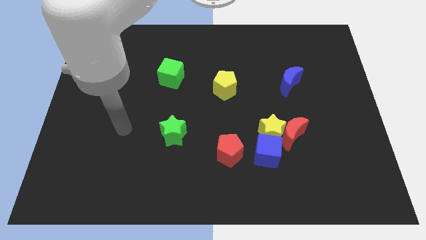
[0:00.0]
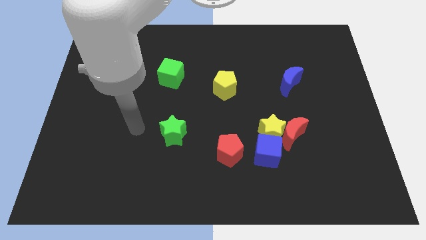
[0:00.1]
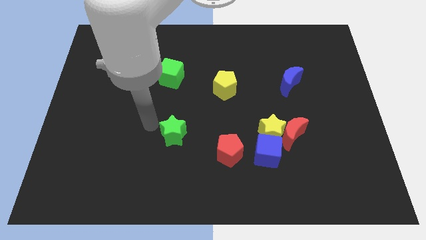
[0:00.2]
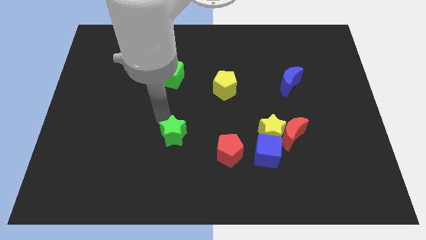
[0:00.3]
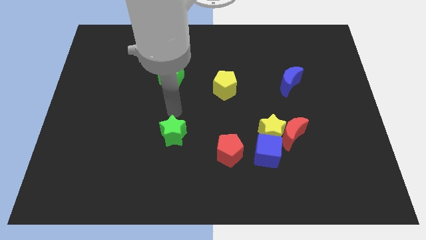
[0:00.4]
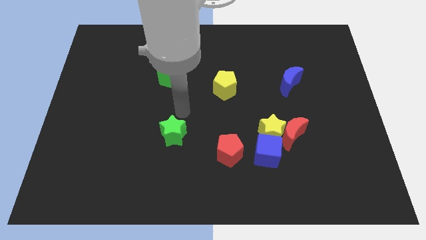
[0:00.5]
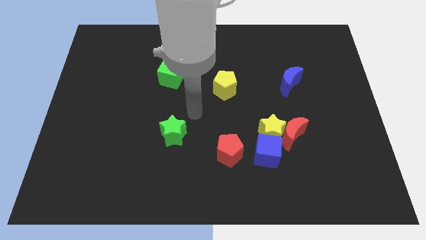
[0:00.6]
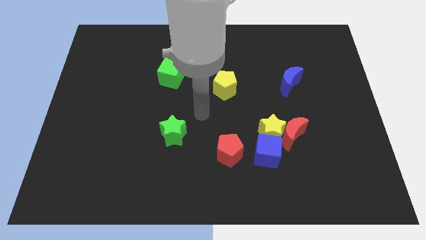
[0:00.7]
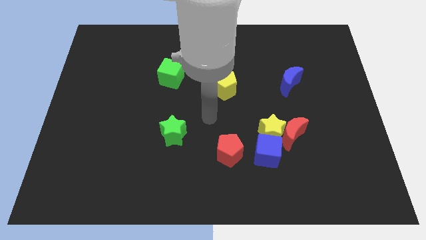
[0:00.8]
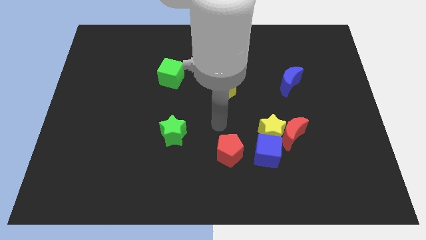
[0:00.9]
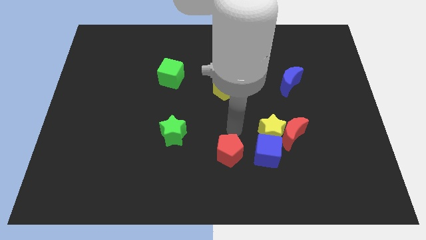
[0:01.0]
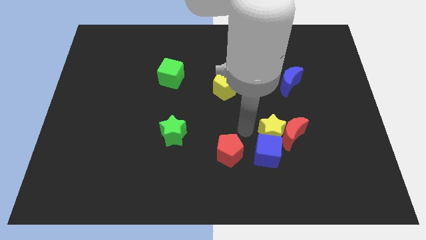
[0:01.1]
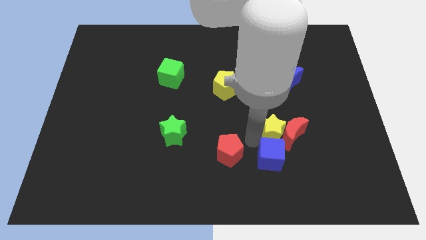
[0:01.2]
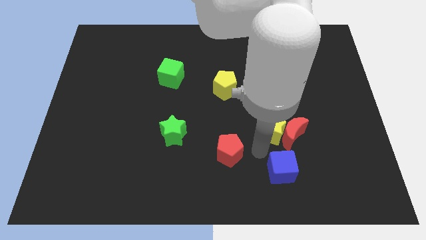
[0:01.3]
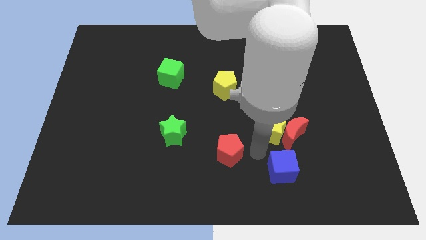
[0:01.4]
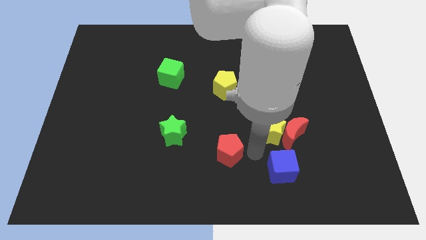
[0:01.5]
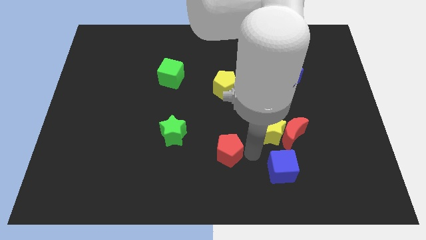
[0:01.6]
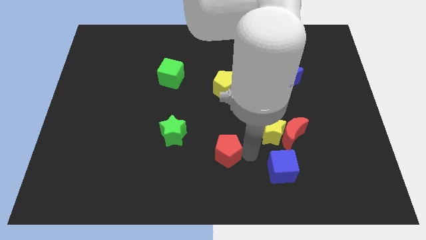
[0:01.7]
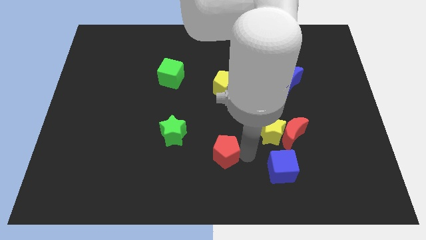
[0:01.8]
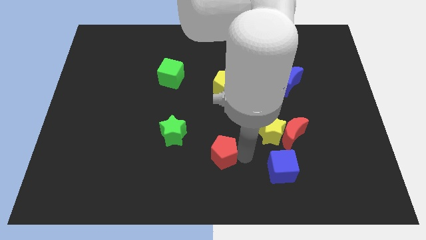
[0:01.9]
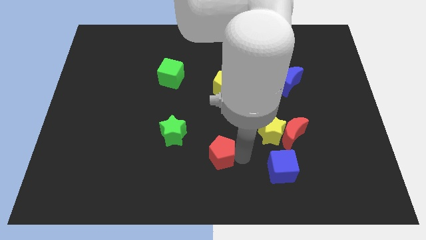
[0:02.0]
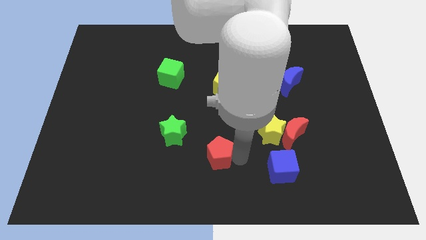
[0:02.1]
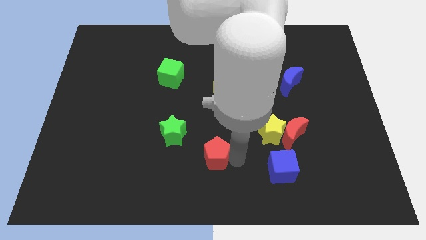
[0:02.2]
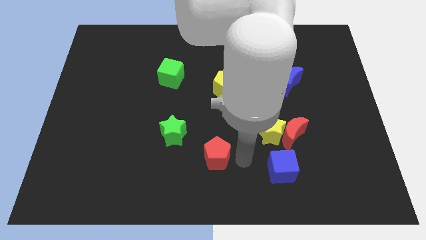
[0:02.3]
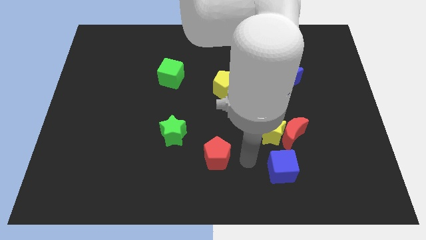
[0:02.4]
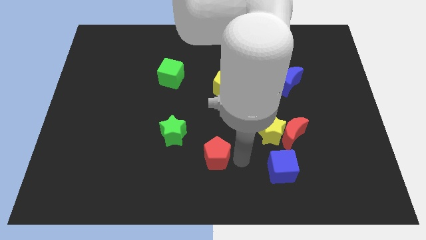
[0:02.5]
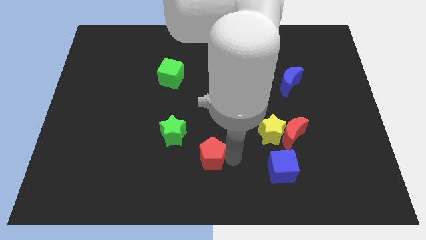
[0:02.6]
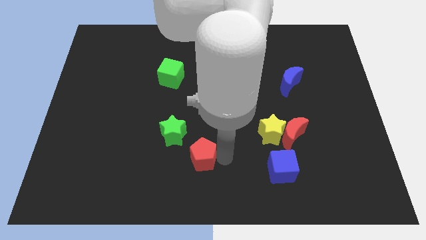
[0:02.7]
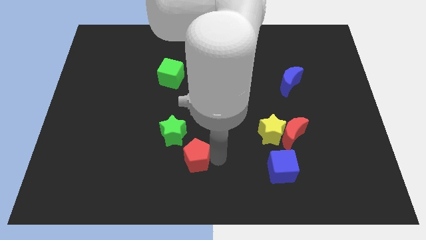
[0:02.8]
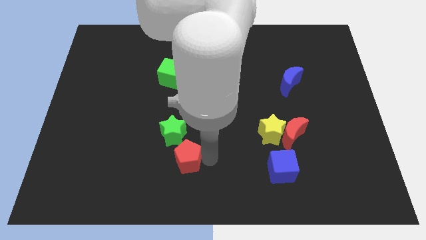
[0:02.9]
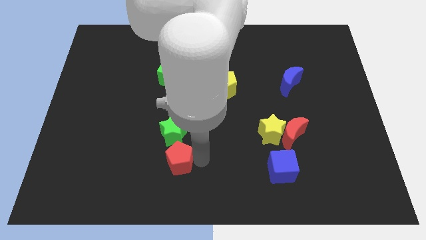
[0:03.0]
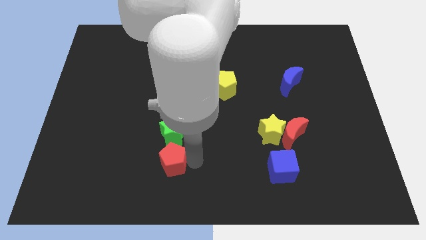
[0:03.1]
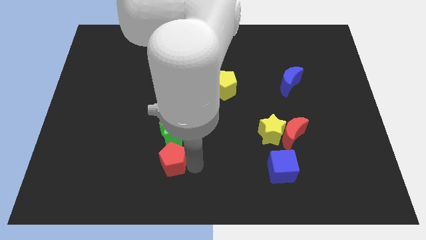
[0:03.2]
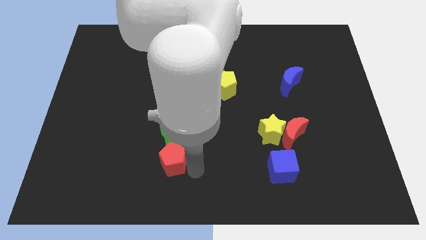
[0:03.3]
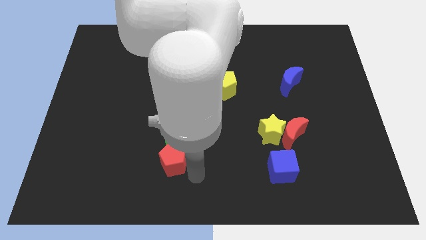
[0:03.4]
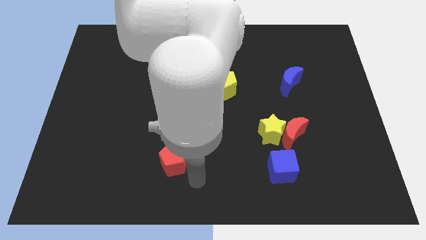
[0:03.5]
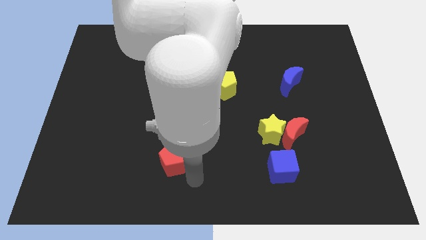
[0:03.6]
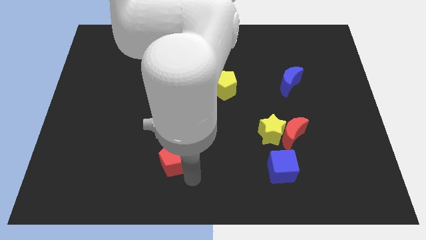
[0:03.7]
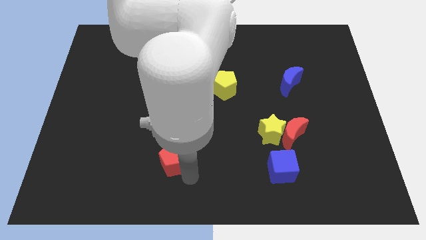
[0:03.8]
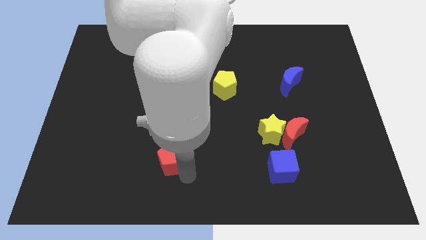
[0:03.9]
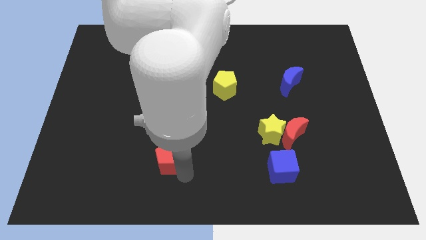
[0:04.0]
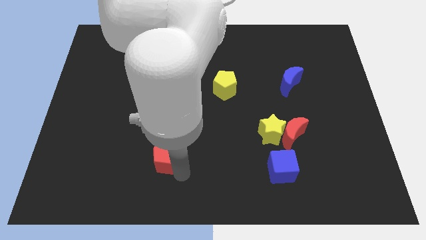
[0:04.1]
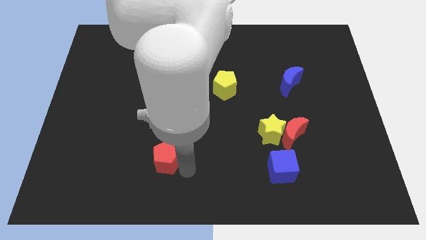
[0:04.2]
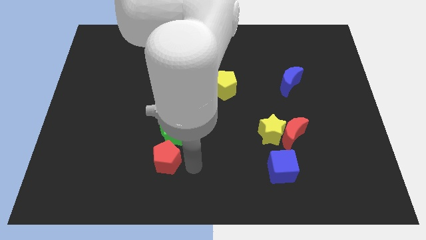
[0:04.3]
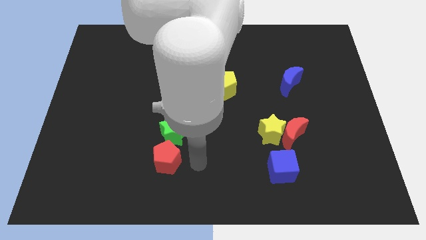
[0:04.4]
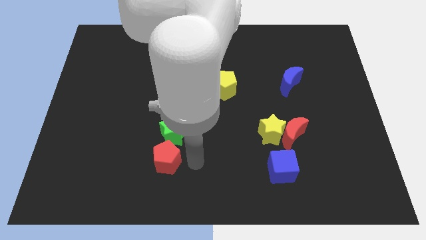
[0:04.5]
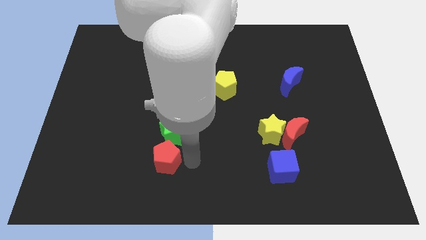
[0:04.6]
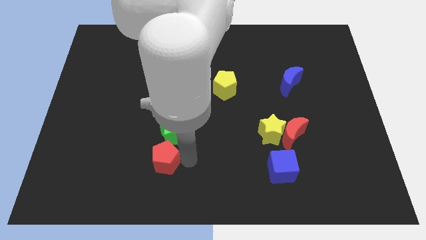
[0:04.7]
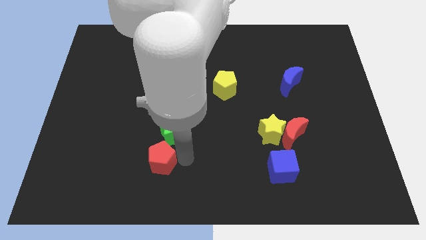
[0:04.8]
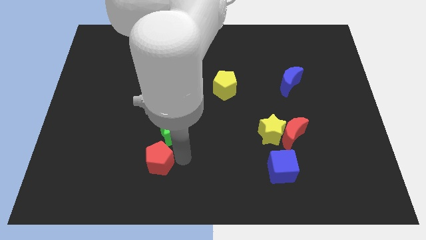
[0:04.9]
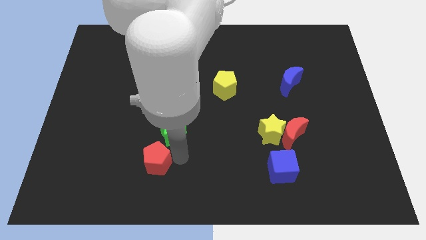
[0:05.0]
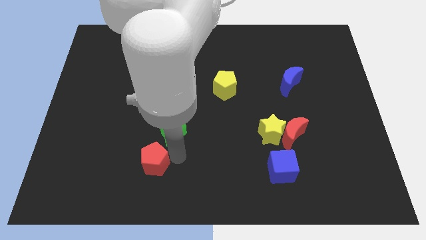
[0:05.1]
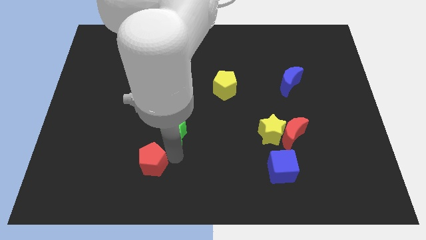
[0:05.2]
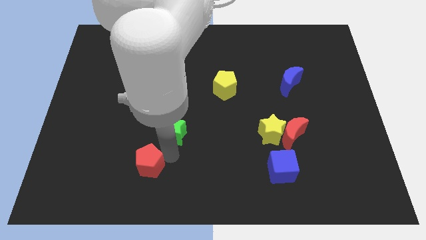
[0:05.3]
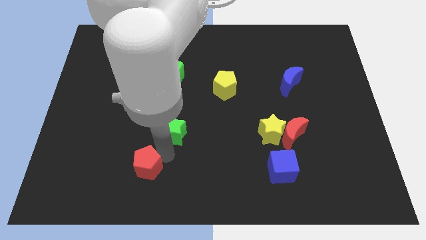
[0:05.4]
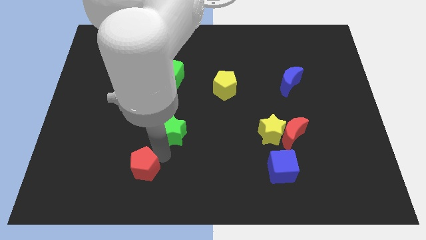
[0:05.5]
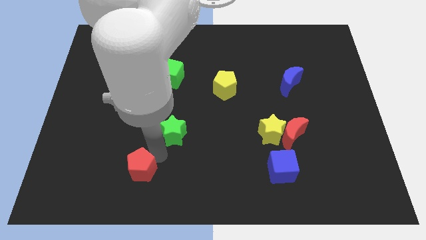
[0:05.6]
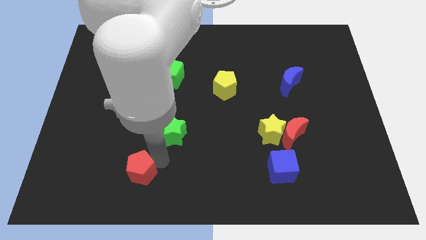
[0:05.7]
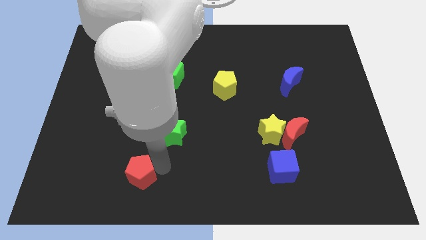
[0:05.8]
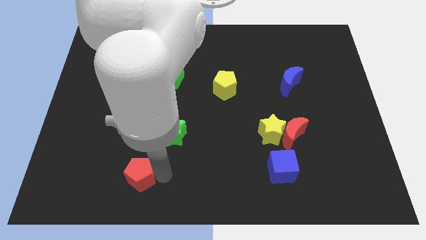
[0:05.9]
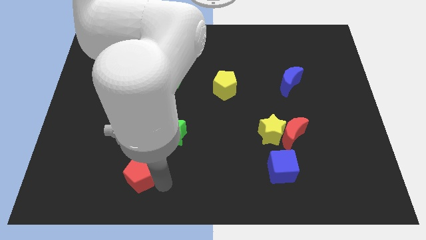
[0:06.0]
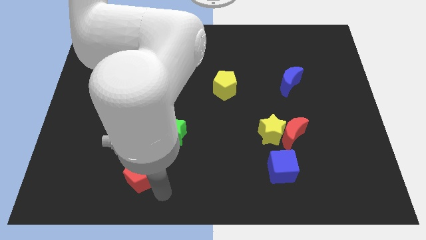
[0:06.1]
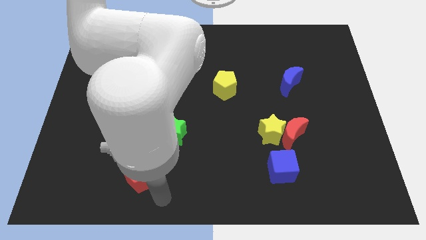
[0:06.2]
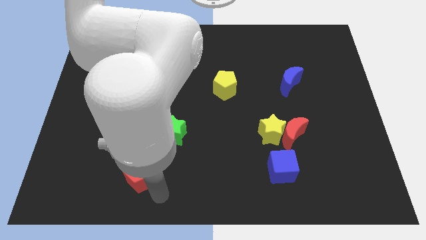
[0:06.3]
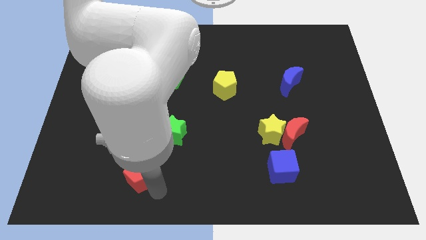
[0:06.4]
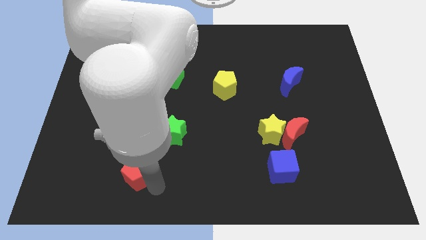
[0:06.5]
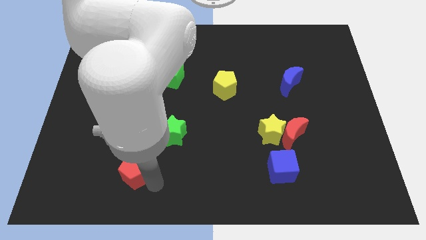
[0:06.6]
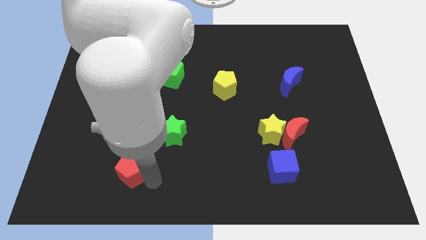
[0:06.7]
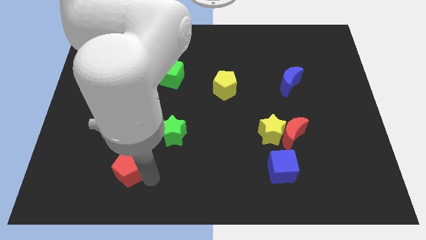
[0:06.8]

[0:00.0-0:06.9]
push the red pentagon left

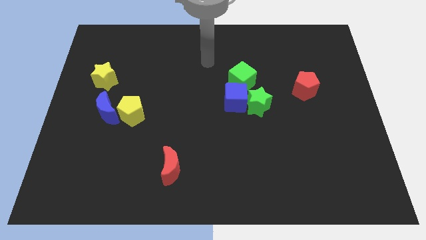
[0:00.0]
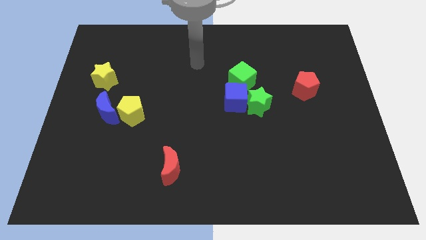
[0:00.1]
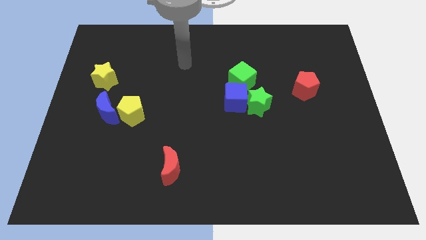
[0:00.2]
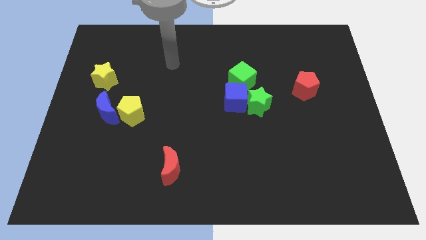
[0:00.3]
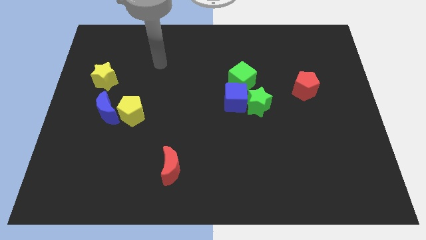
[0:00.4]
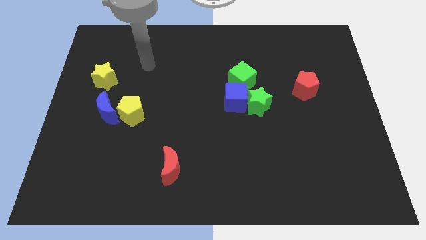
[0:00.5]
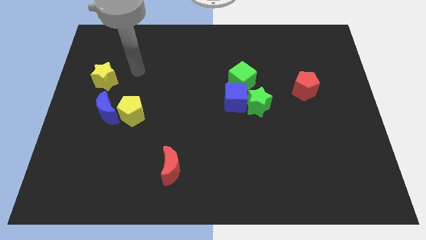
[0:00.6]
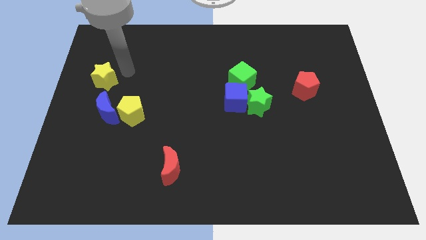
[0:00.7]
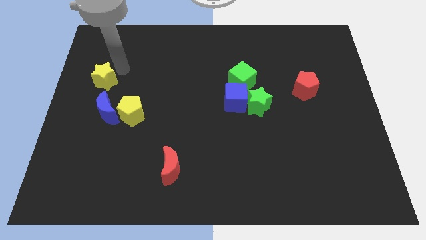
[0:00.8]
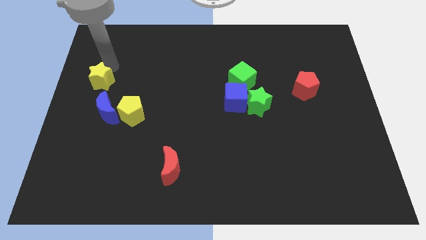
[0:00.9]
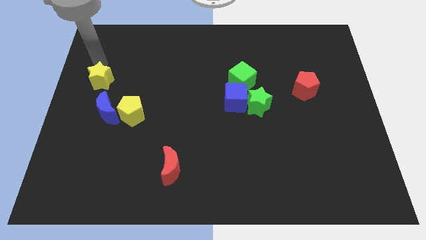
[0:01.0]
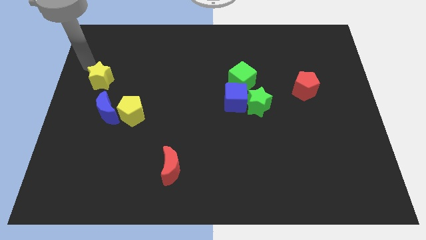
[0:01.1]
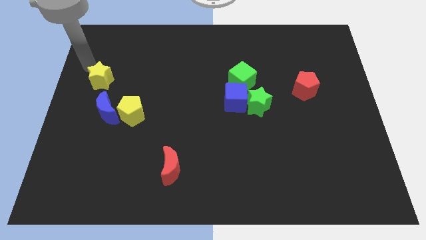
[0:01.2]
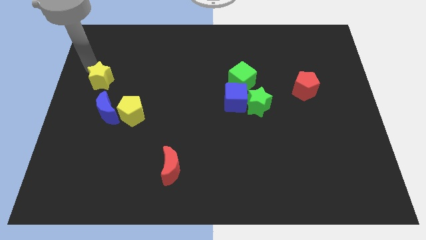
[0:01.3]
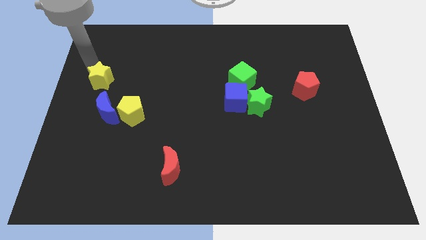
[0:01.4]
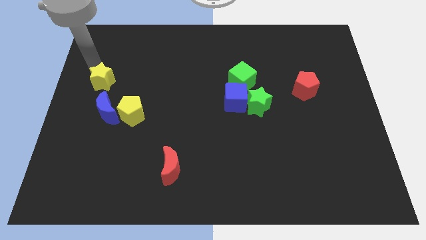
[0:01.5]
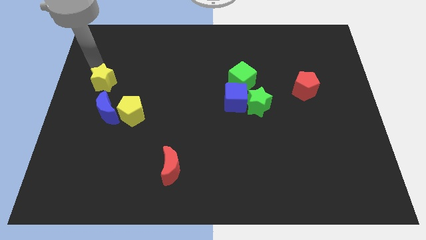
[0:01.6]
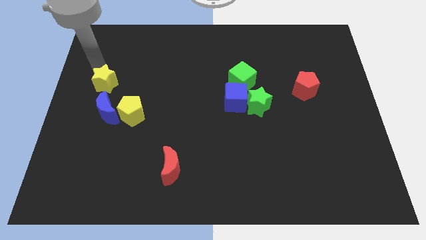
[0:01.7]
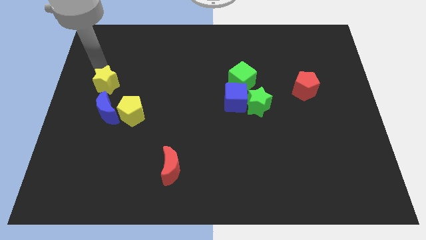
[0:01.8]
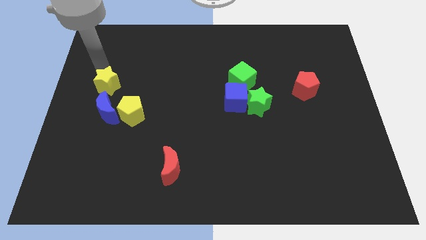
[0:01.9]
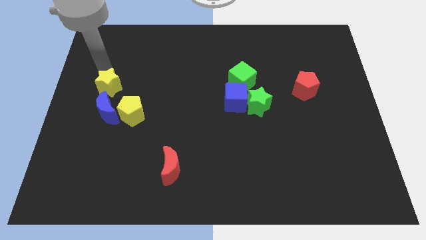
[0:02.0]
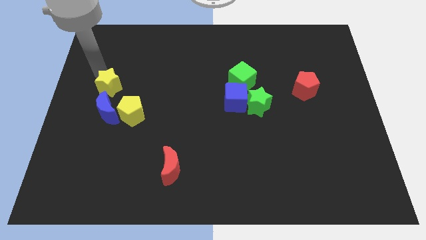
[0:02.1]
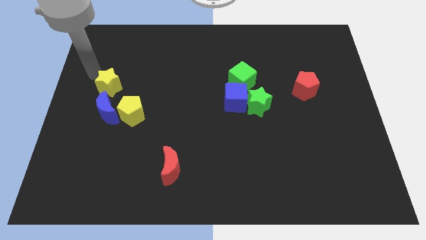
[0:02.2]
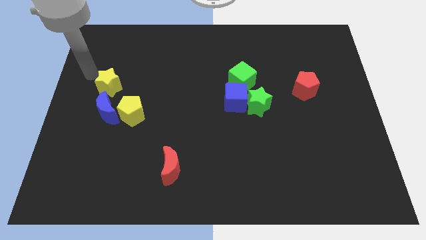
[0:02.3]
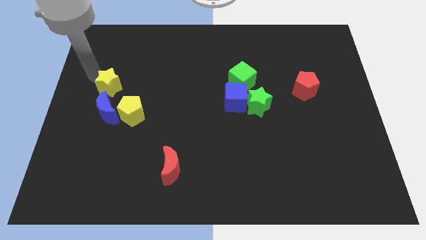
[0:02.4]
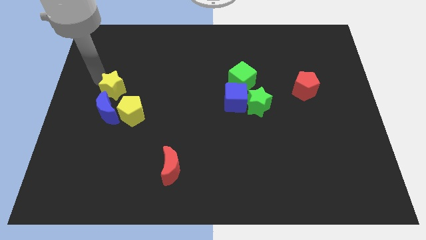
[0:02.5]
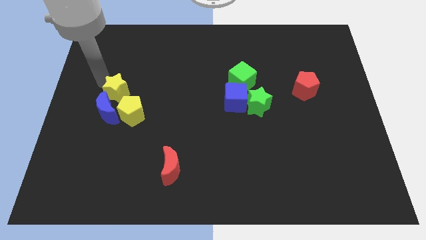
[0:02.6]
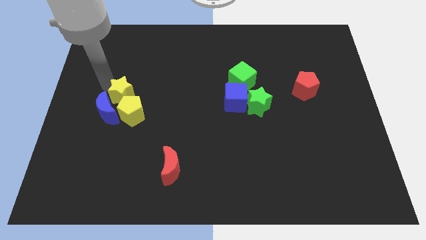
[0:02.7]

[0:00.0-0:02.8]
slightly push the yellow star downwards and right
